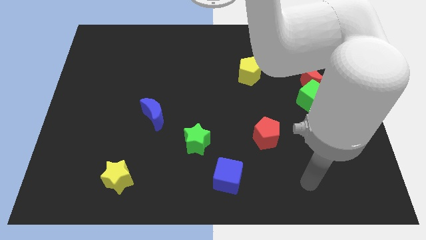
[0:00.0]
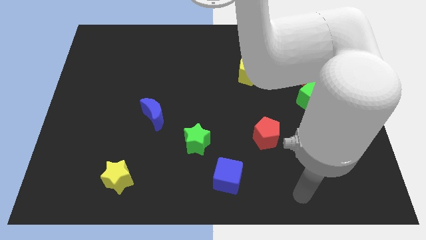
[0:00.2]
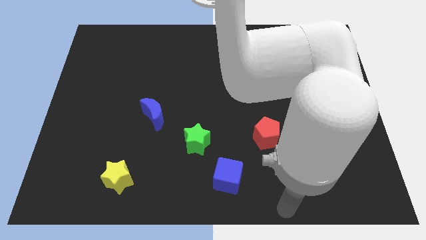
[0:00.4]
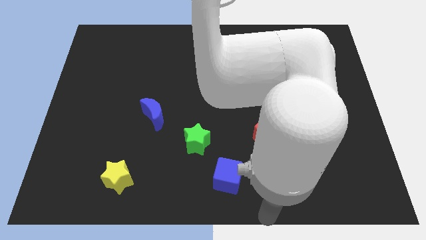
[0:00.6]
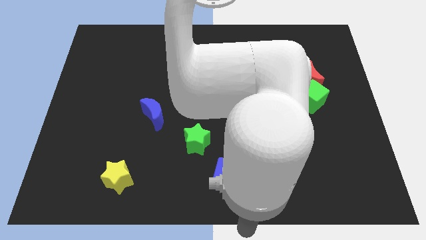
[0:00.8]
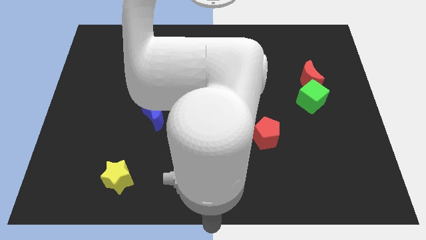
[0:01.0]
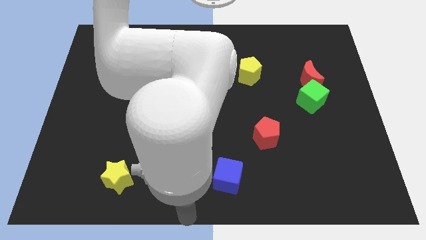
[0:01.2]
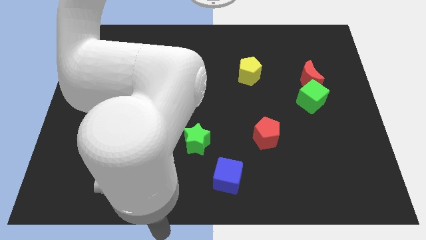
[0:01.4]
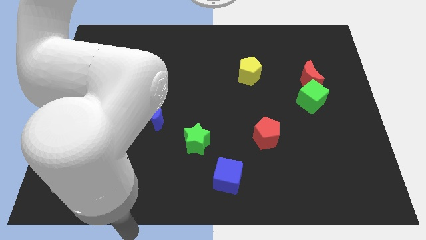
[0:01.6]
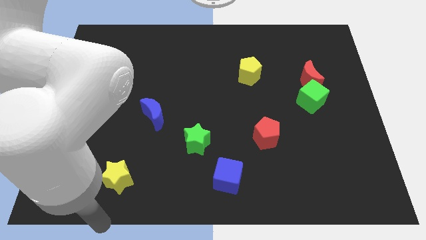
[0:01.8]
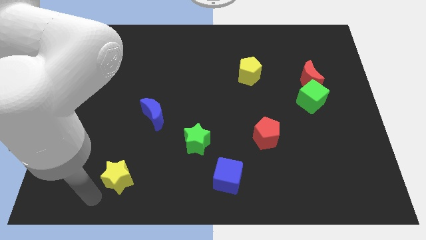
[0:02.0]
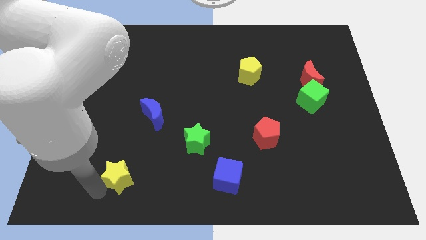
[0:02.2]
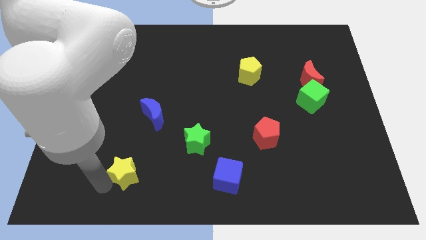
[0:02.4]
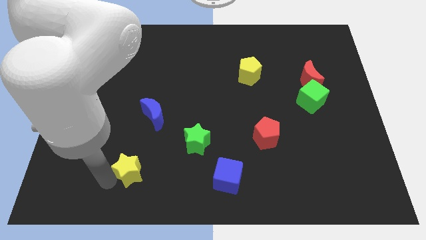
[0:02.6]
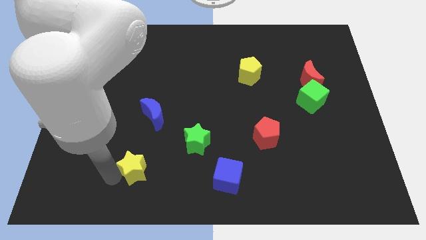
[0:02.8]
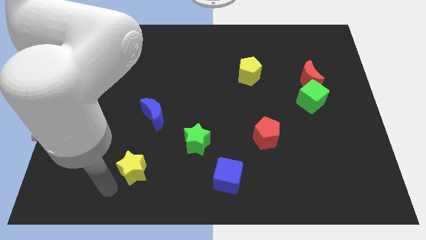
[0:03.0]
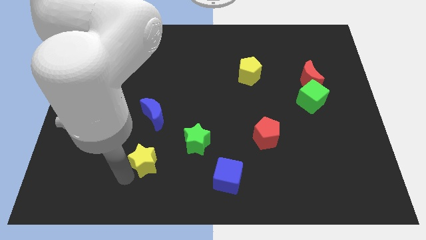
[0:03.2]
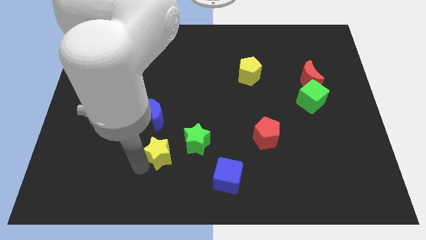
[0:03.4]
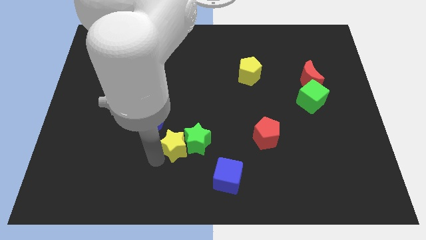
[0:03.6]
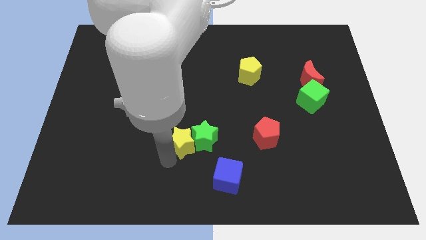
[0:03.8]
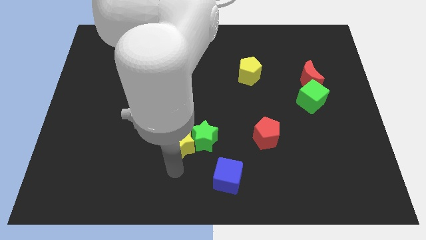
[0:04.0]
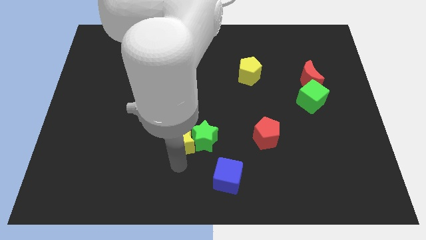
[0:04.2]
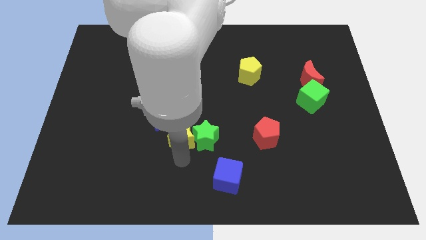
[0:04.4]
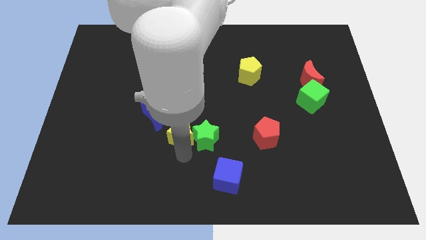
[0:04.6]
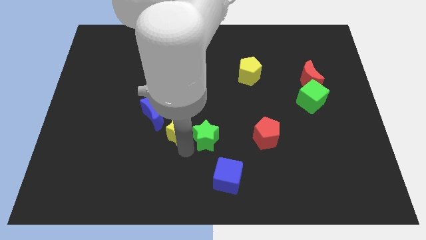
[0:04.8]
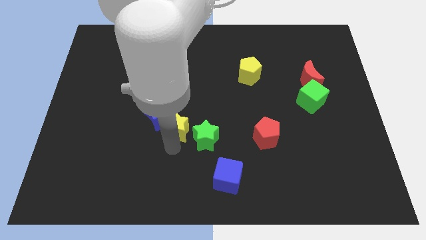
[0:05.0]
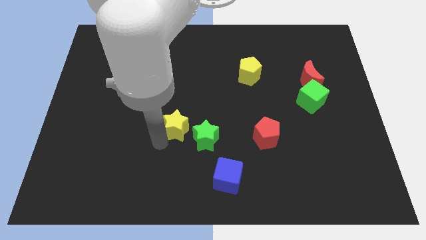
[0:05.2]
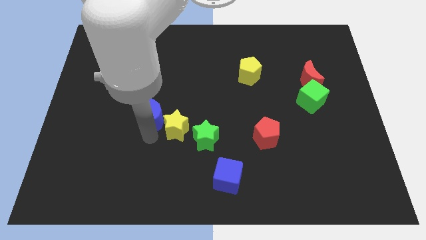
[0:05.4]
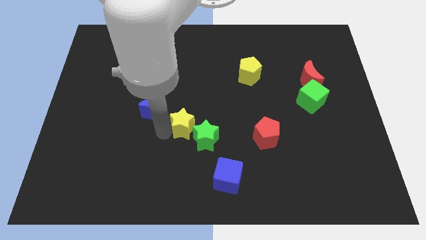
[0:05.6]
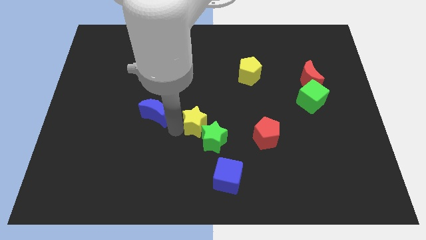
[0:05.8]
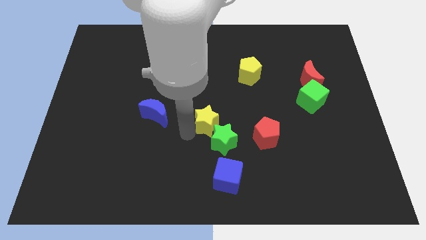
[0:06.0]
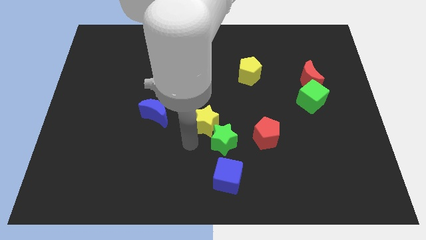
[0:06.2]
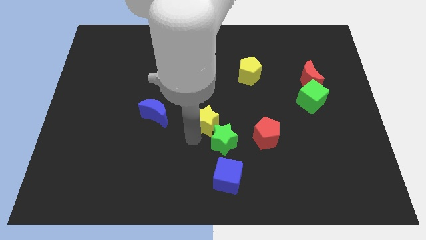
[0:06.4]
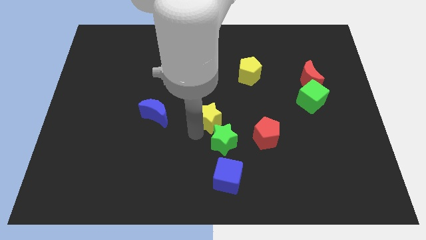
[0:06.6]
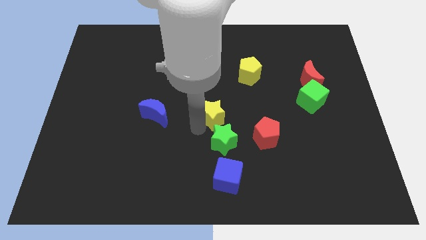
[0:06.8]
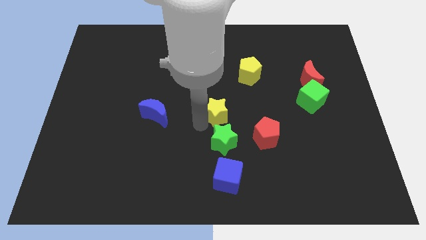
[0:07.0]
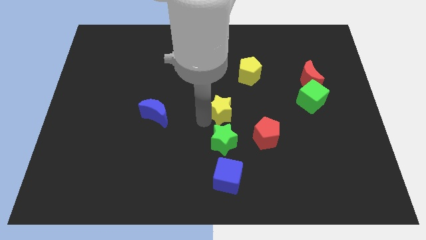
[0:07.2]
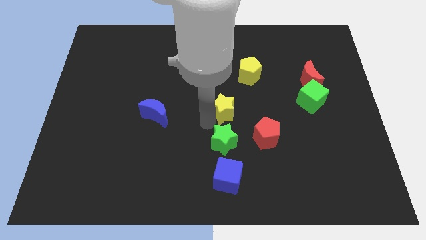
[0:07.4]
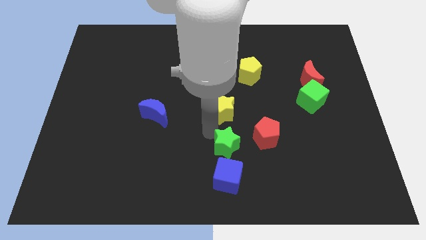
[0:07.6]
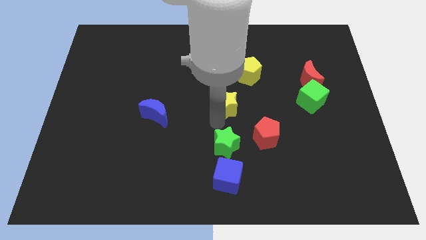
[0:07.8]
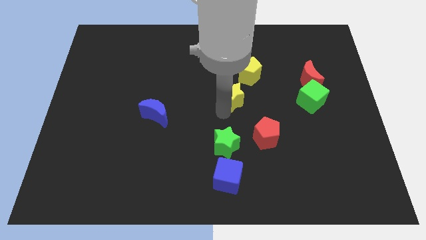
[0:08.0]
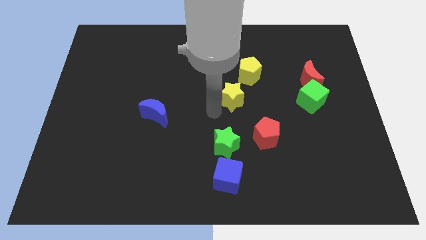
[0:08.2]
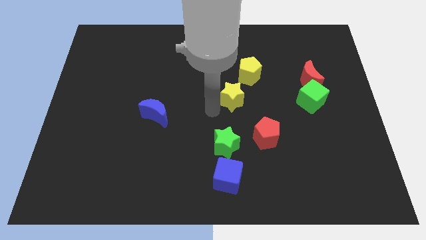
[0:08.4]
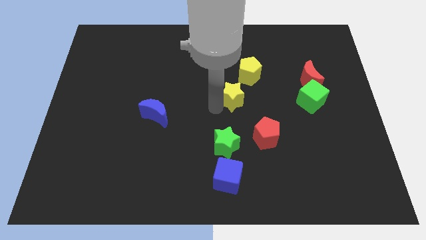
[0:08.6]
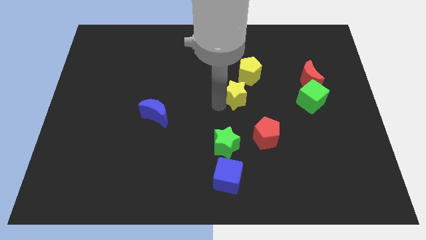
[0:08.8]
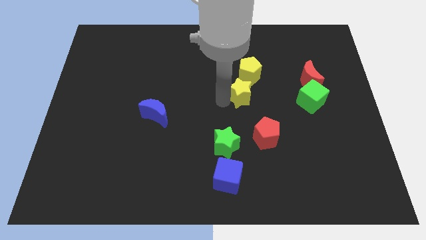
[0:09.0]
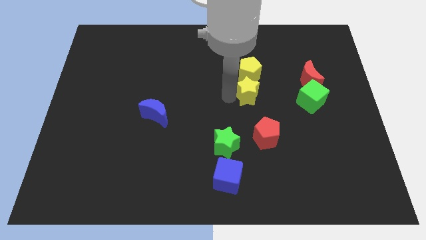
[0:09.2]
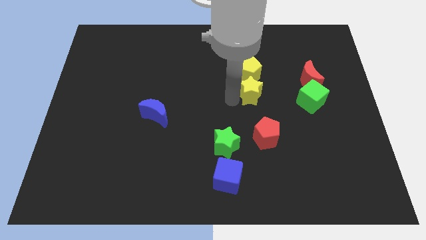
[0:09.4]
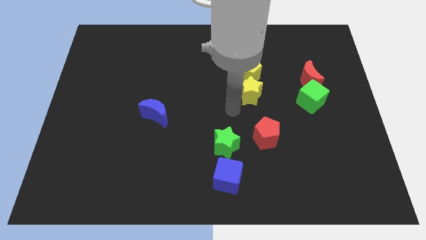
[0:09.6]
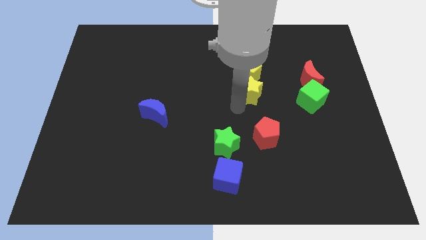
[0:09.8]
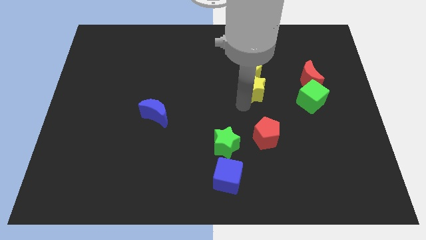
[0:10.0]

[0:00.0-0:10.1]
slide the yellow star to the left of the red moon

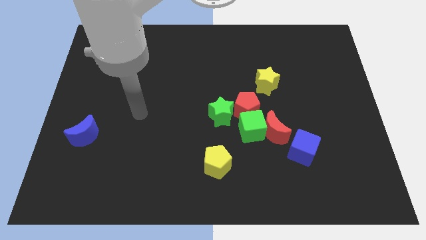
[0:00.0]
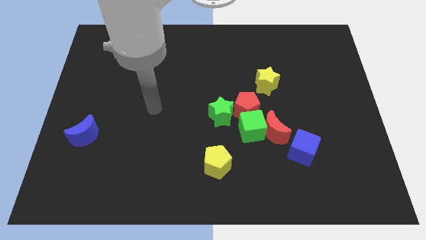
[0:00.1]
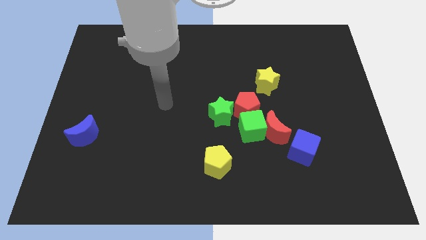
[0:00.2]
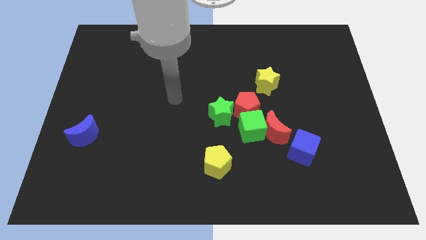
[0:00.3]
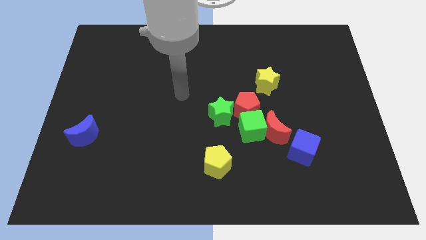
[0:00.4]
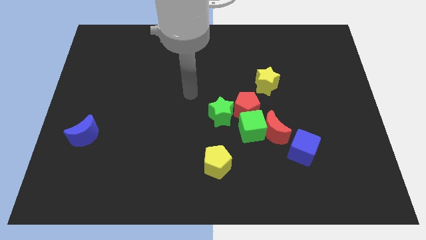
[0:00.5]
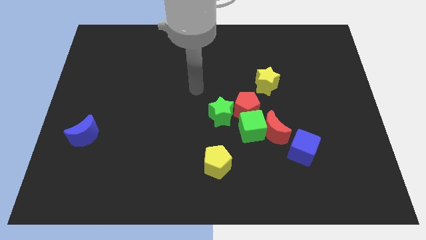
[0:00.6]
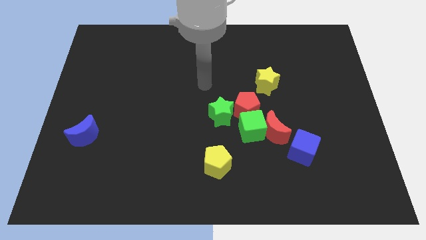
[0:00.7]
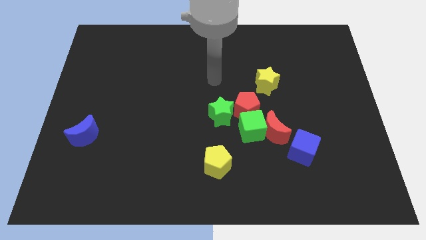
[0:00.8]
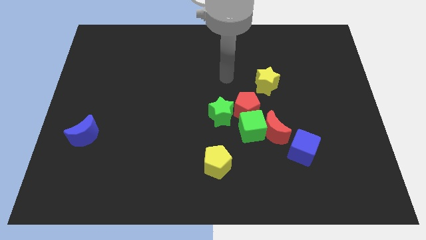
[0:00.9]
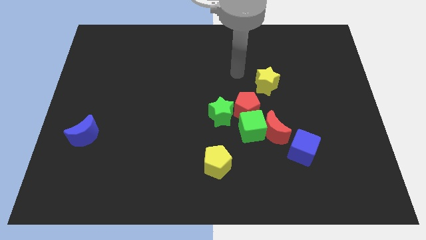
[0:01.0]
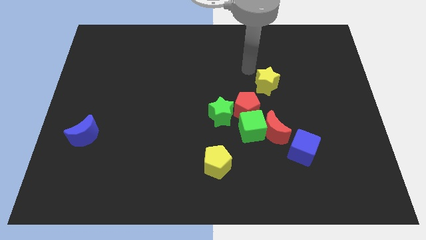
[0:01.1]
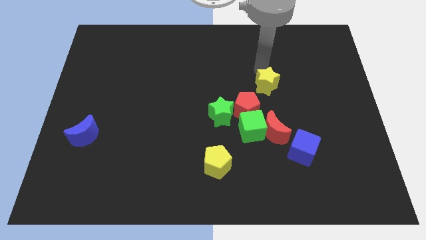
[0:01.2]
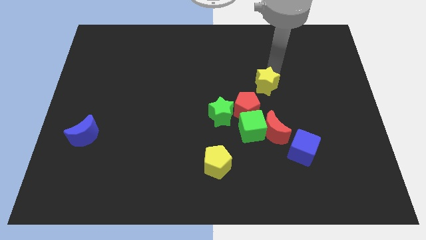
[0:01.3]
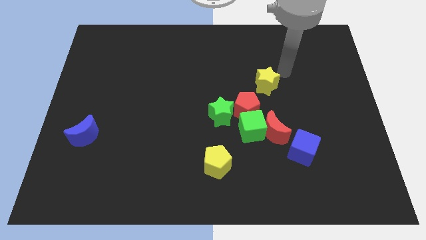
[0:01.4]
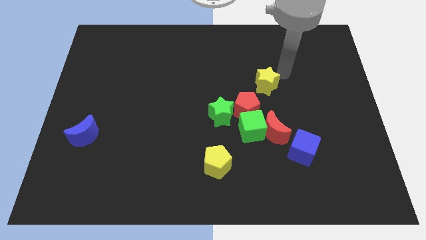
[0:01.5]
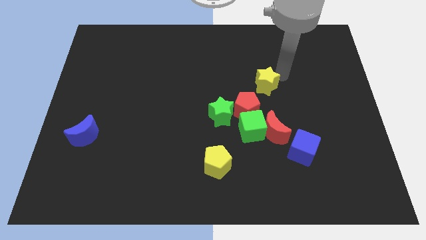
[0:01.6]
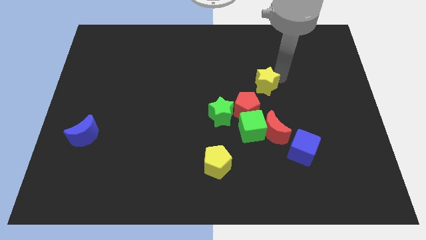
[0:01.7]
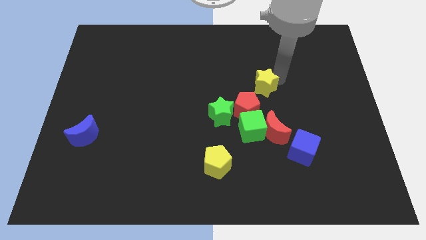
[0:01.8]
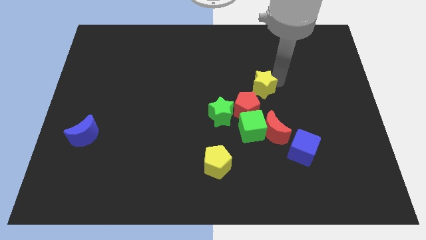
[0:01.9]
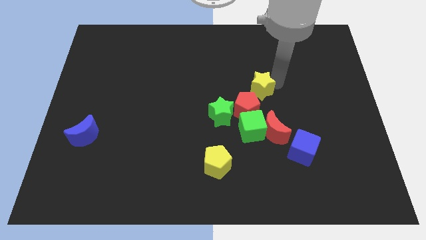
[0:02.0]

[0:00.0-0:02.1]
move the yellow star to the top right of the green star
